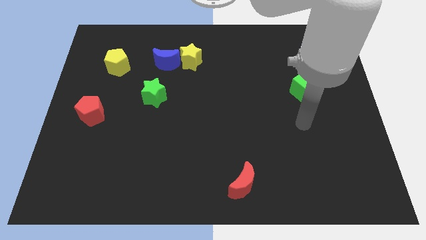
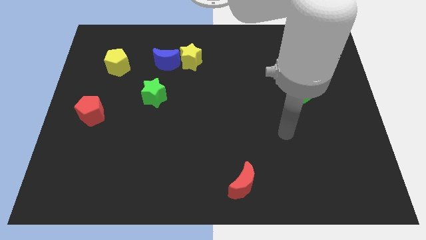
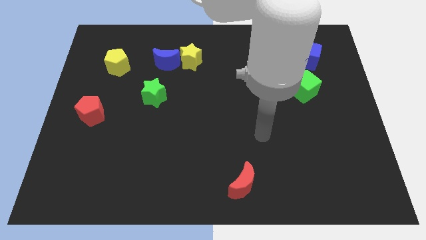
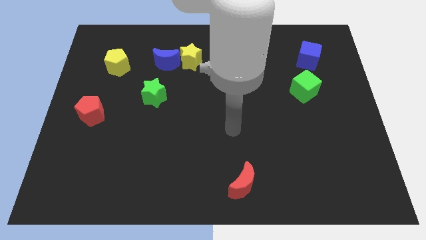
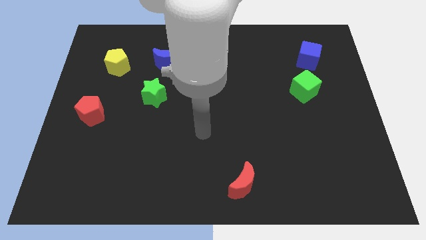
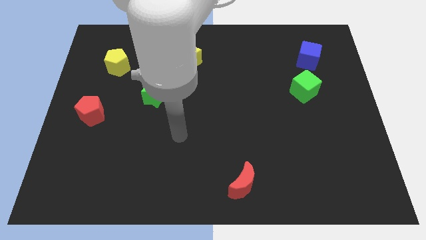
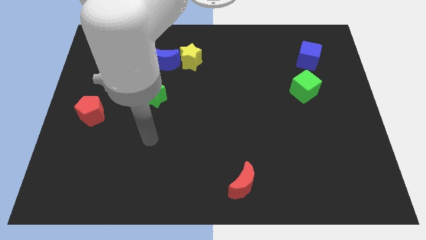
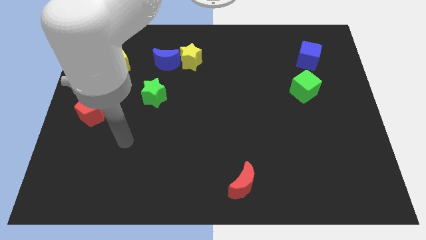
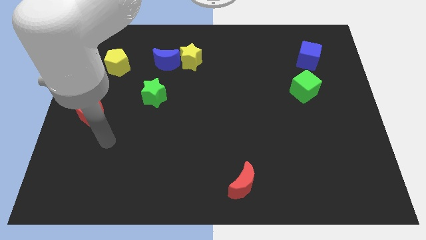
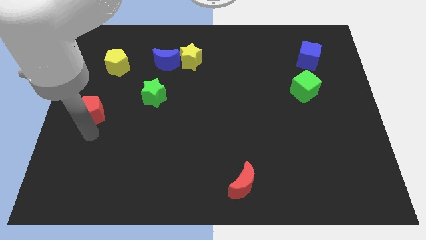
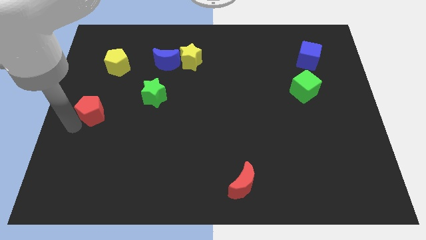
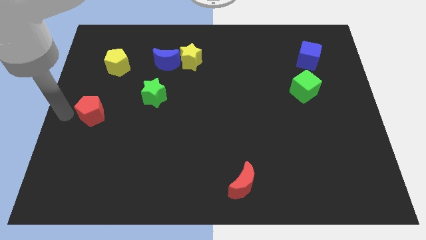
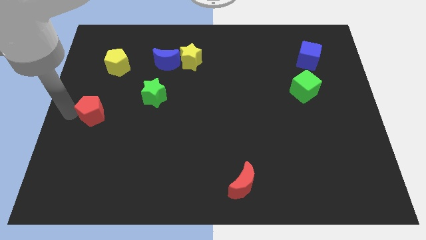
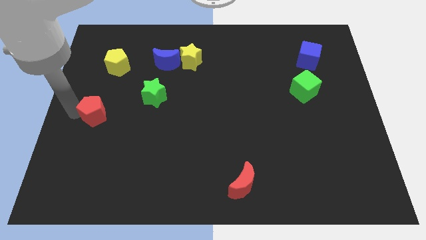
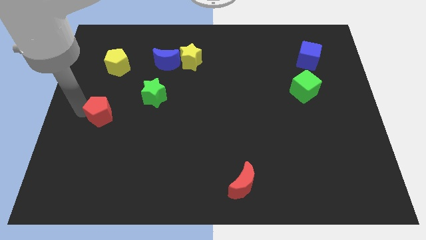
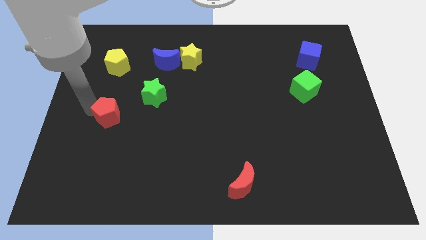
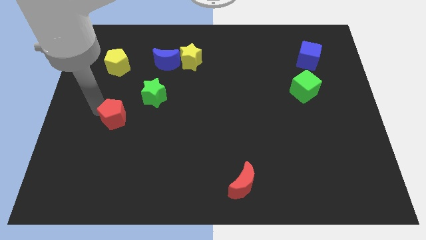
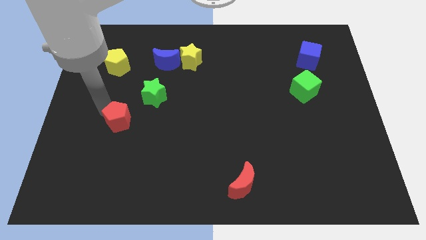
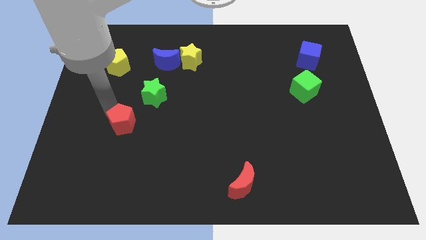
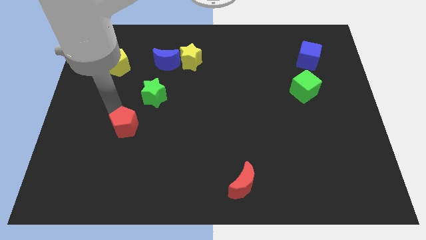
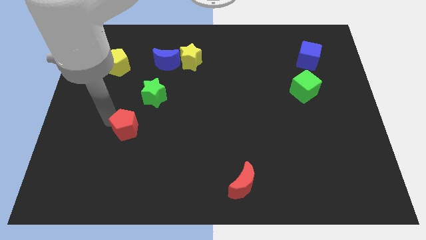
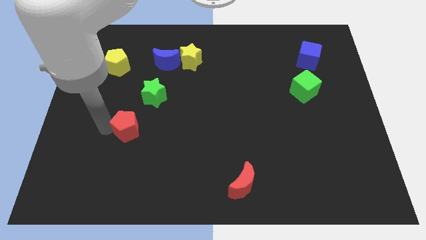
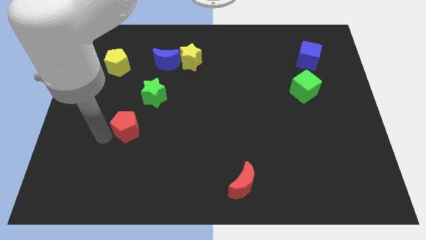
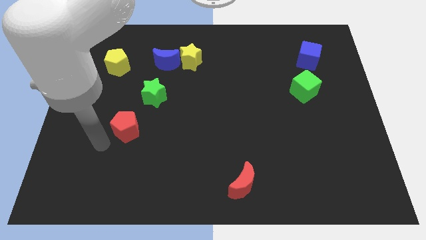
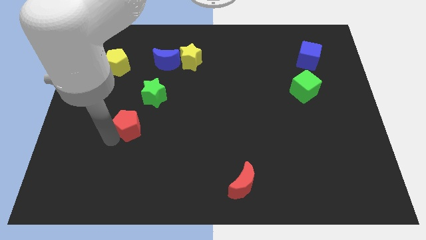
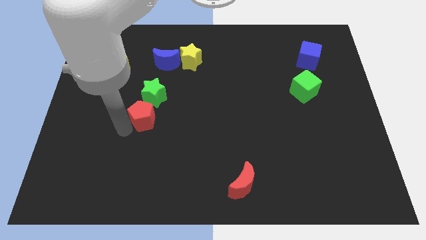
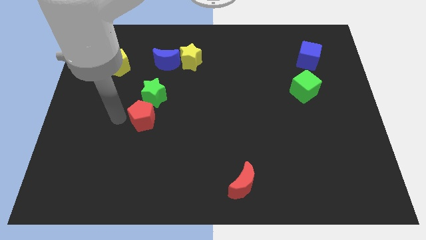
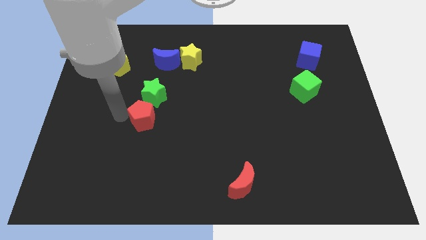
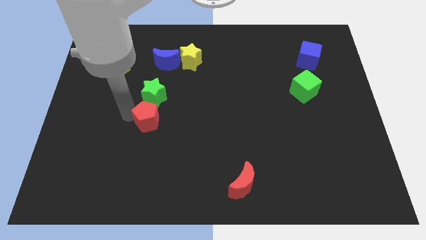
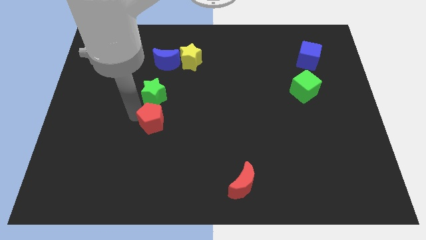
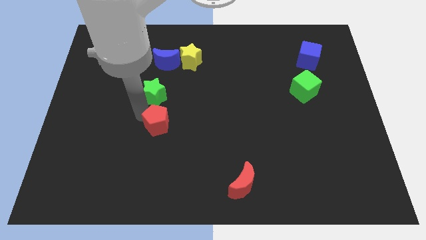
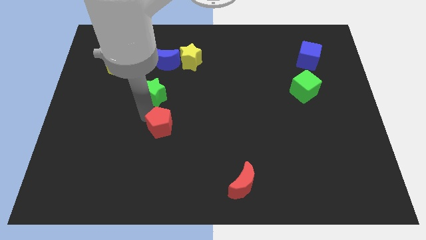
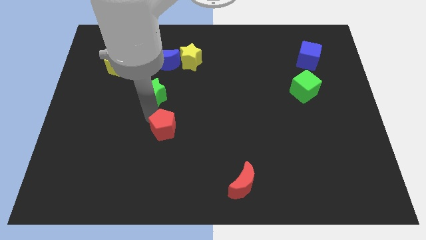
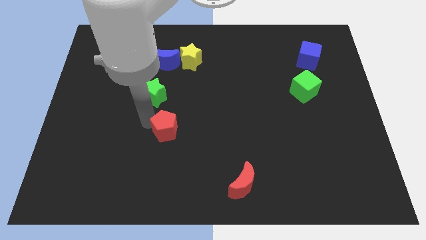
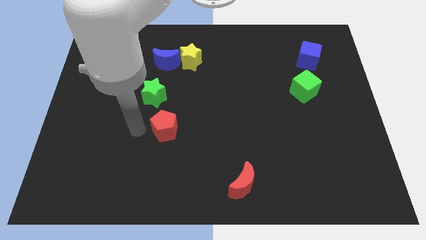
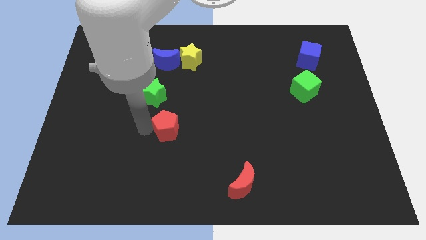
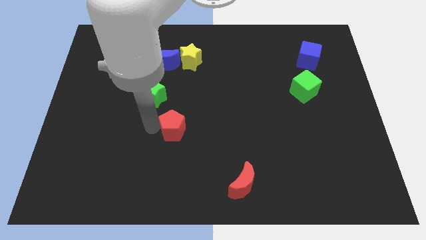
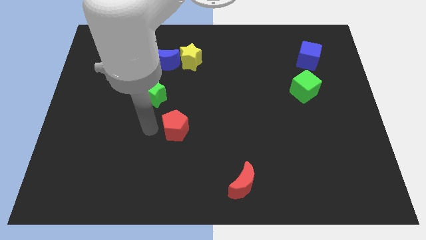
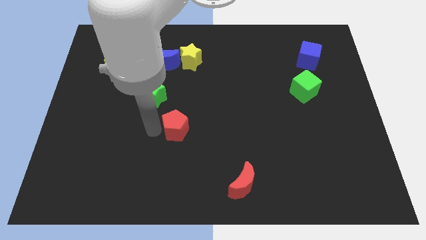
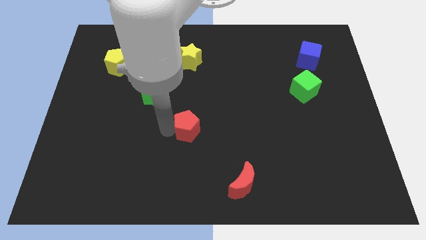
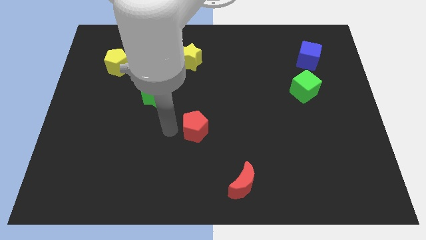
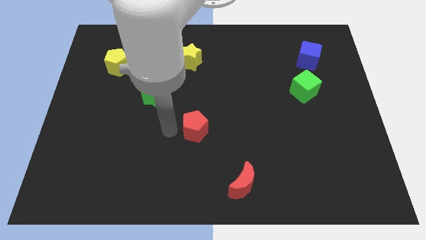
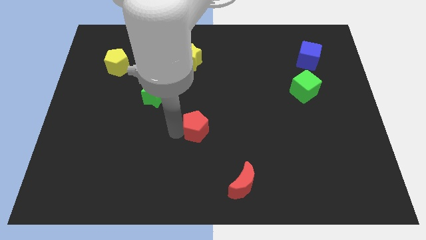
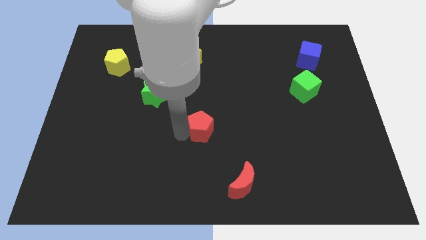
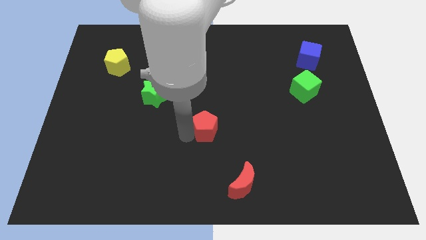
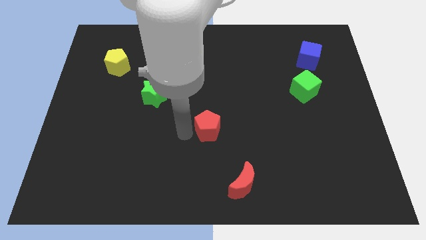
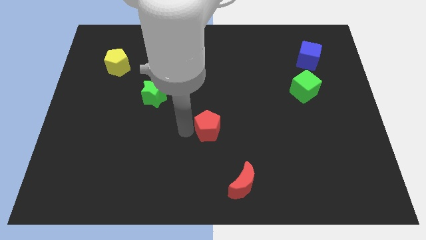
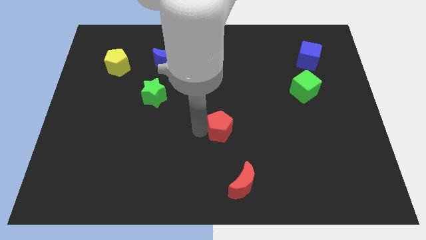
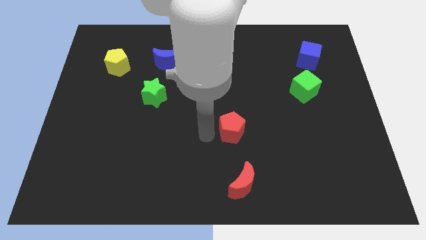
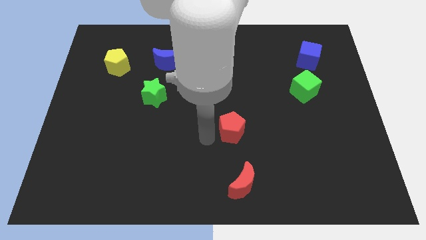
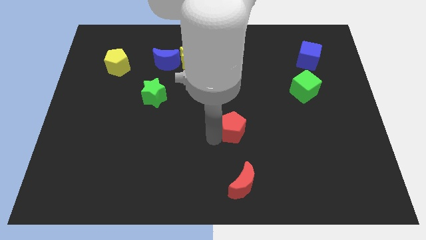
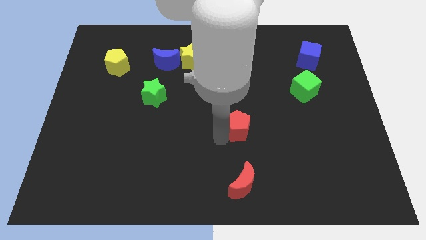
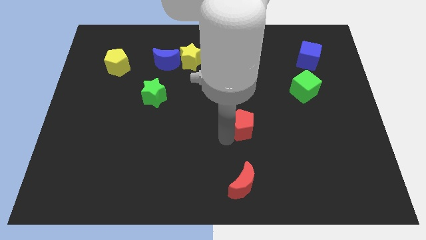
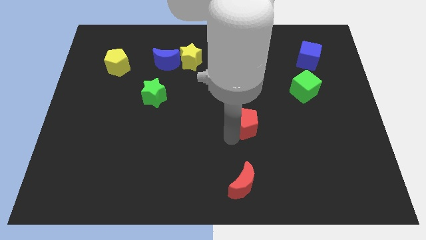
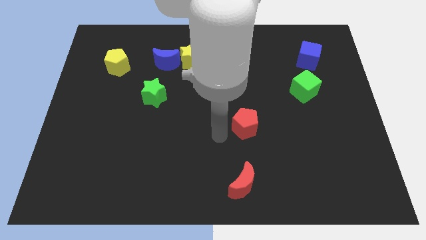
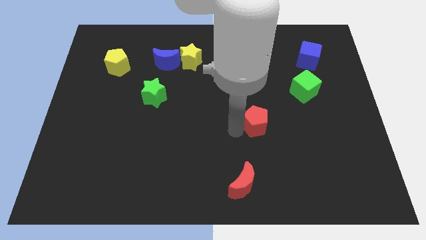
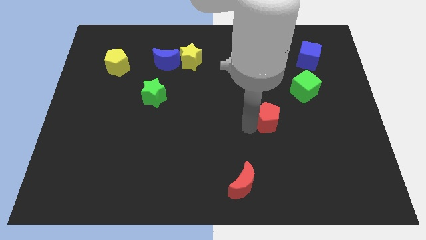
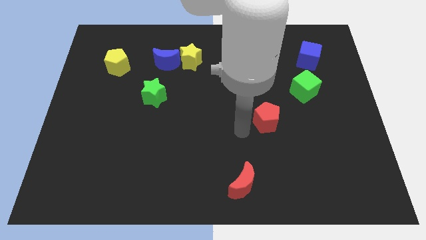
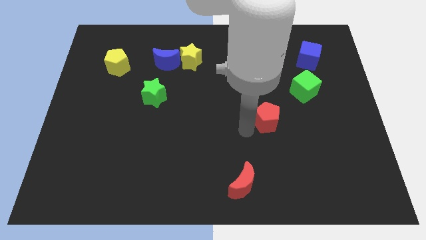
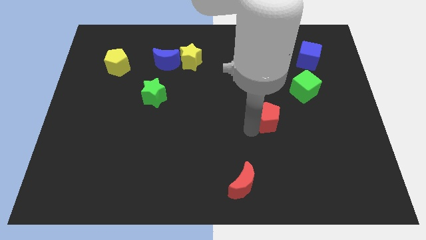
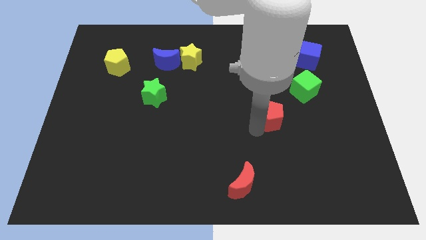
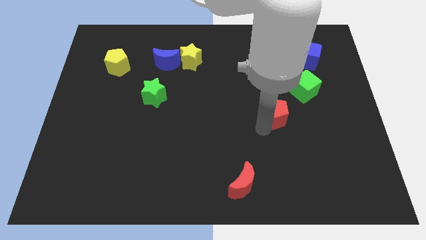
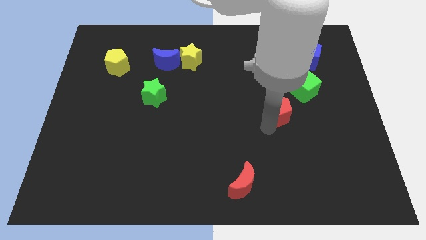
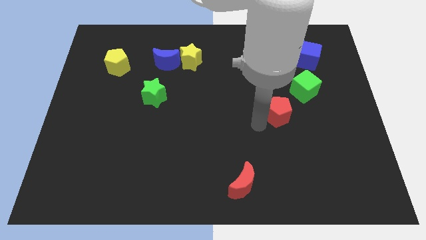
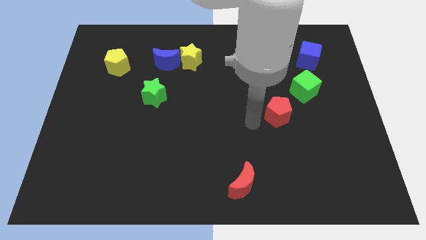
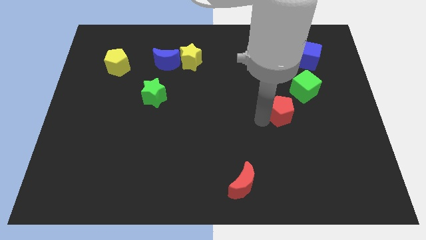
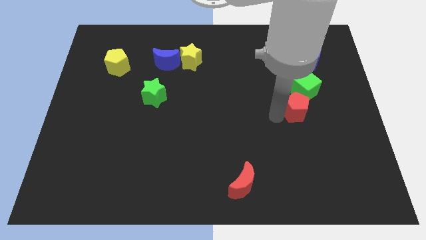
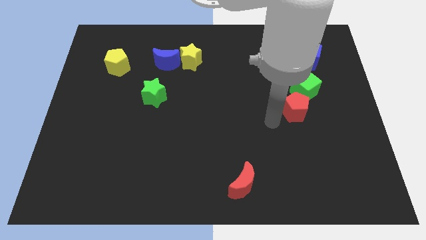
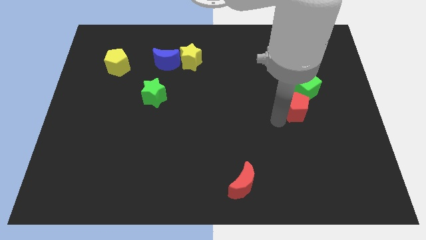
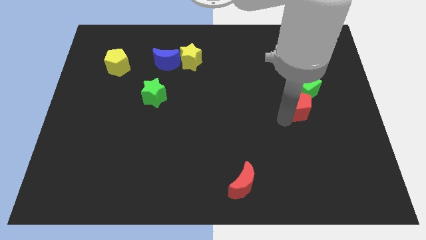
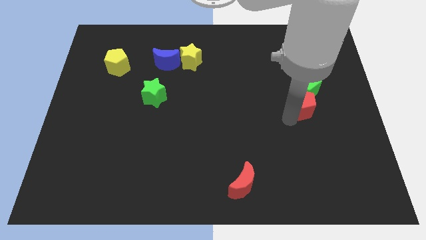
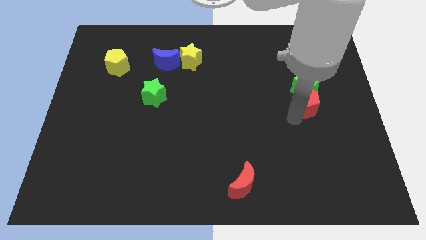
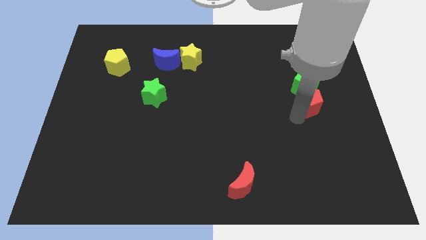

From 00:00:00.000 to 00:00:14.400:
push the red pentagon below the blue cube
